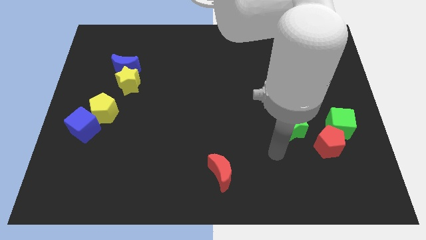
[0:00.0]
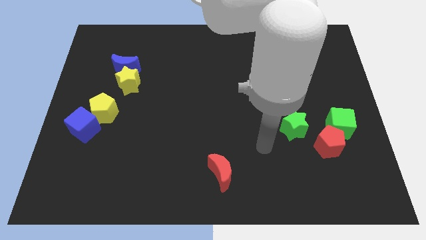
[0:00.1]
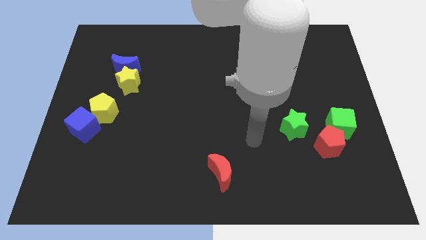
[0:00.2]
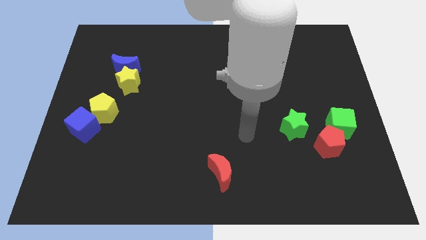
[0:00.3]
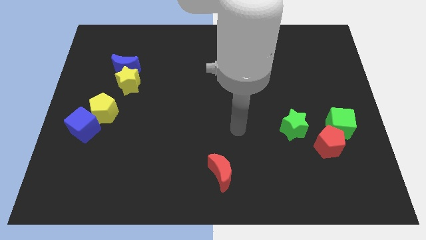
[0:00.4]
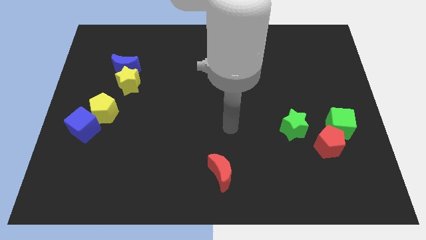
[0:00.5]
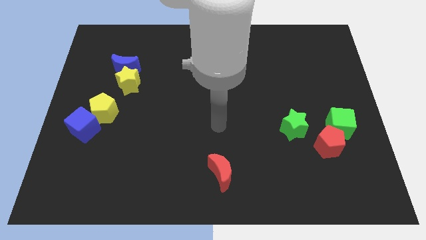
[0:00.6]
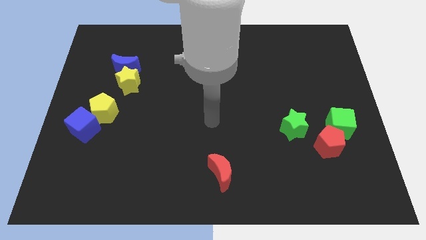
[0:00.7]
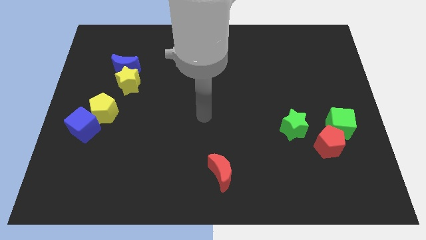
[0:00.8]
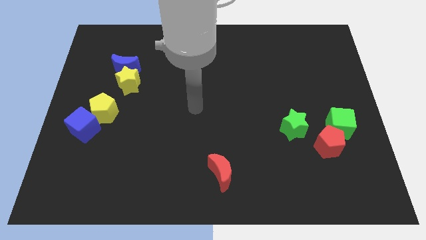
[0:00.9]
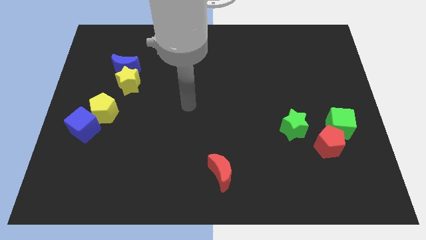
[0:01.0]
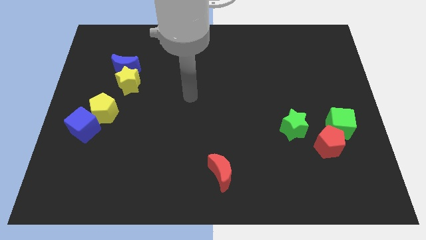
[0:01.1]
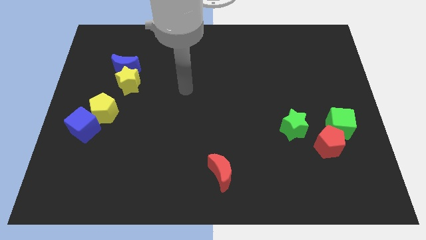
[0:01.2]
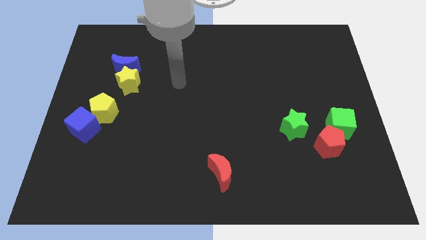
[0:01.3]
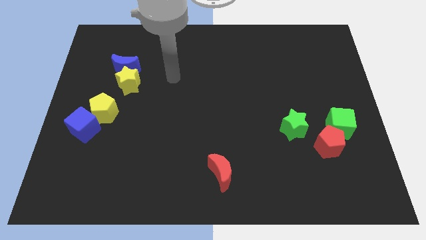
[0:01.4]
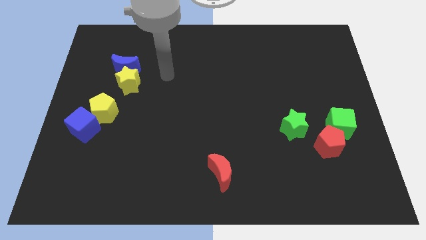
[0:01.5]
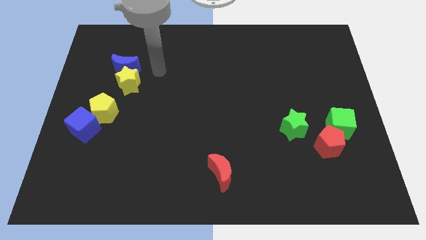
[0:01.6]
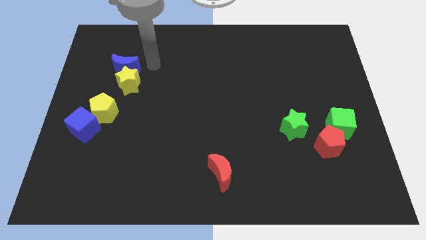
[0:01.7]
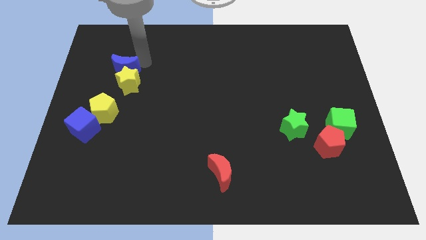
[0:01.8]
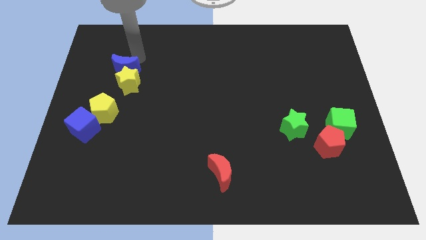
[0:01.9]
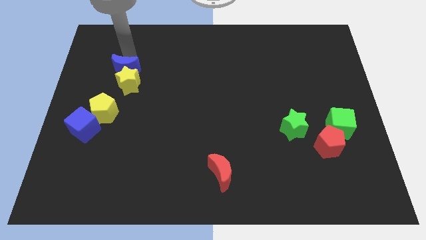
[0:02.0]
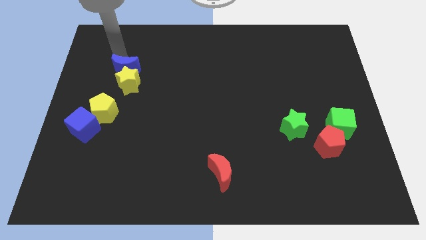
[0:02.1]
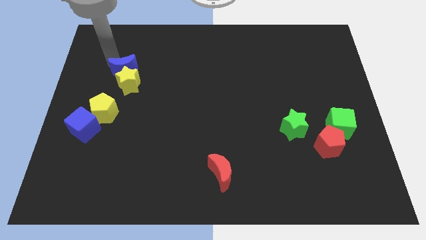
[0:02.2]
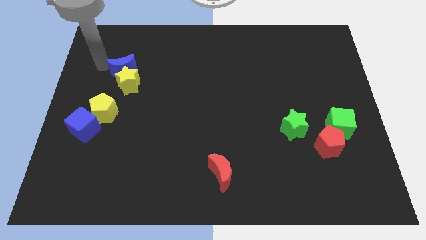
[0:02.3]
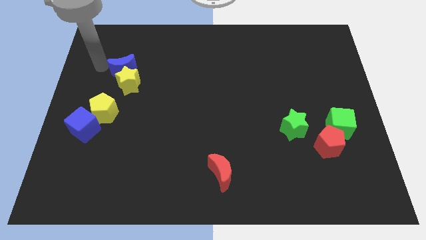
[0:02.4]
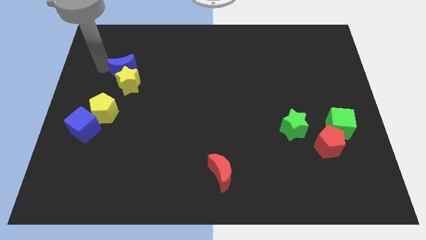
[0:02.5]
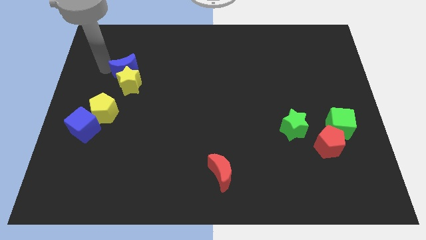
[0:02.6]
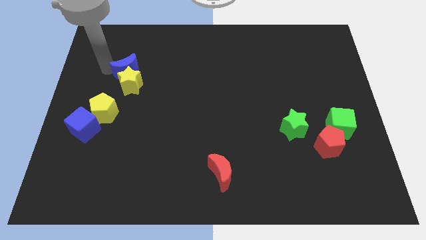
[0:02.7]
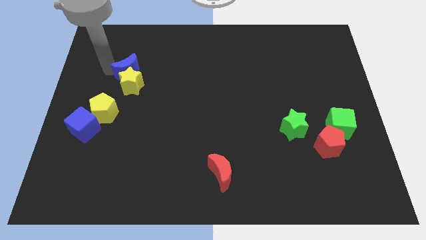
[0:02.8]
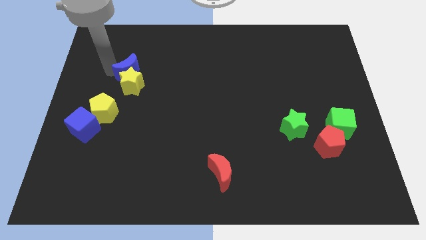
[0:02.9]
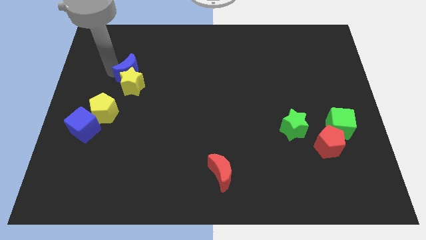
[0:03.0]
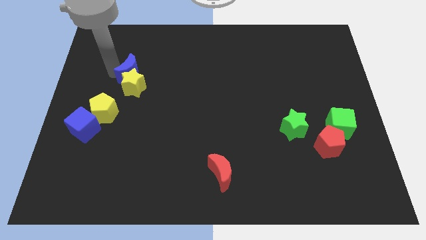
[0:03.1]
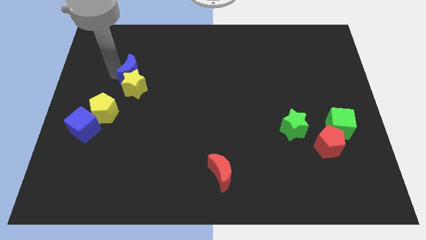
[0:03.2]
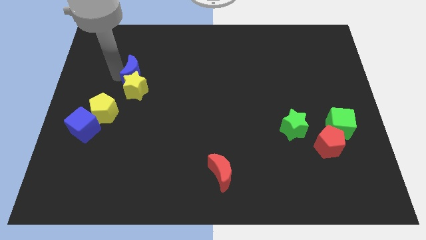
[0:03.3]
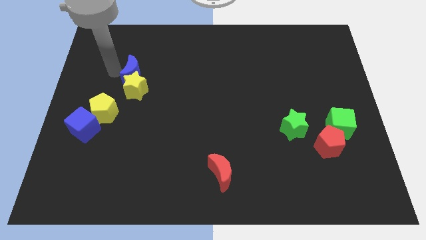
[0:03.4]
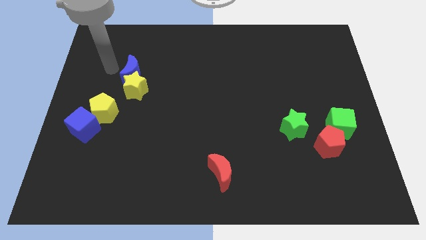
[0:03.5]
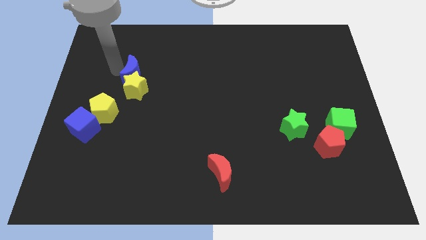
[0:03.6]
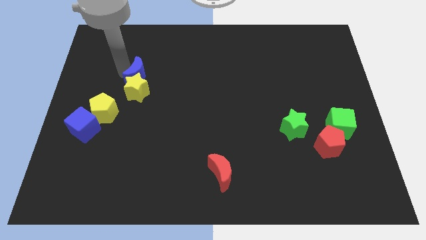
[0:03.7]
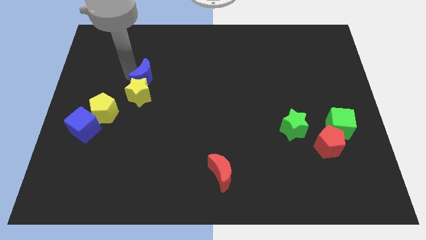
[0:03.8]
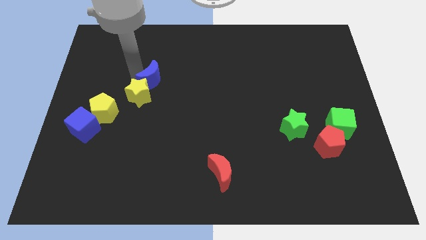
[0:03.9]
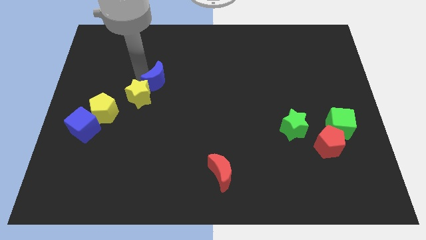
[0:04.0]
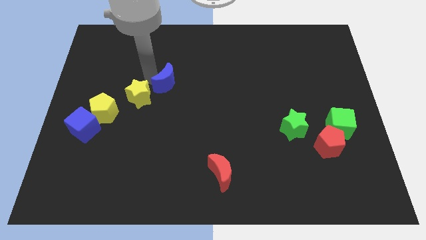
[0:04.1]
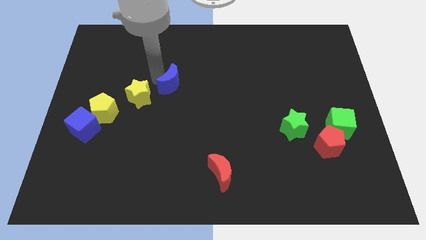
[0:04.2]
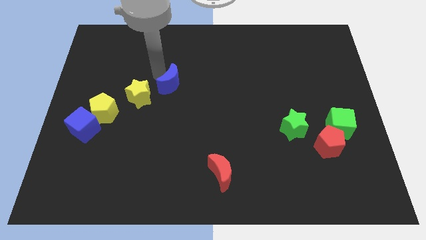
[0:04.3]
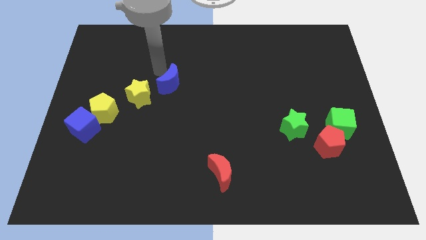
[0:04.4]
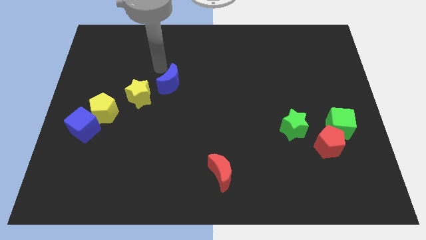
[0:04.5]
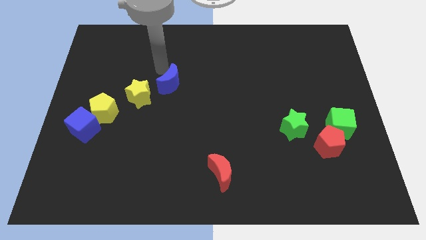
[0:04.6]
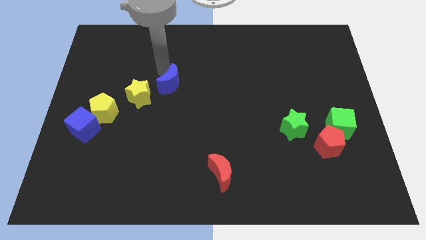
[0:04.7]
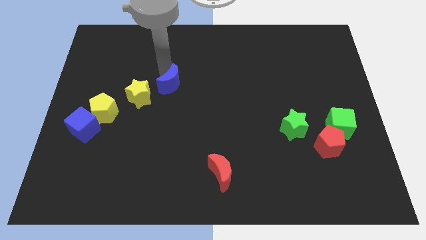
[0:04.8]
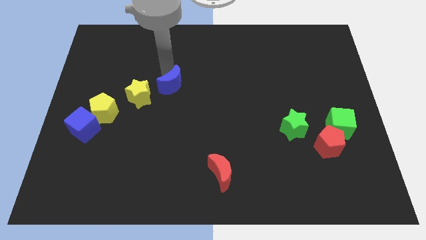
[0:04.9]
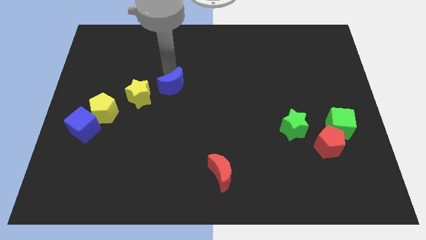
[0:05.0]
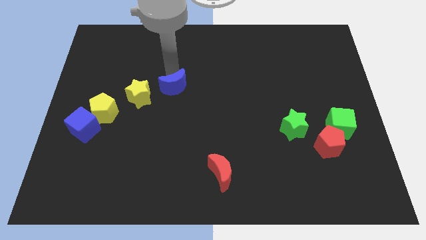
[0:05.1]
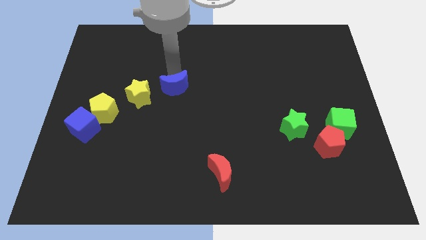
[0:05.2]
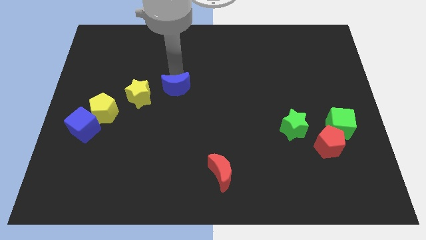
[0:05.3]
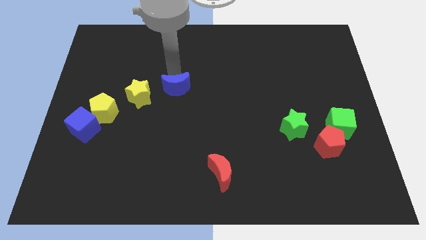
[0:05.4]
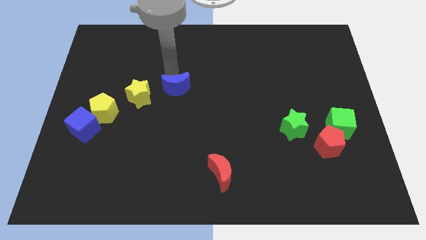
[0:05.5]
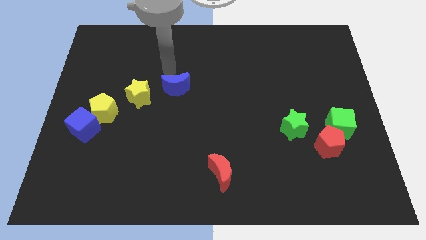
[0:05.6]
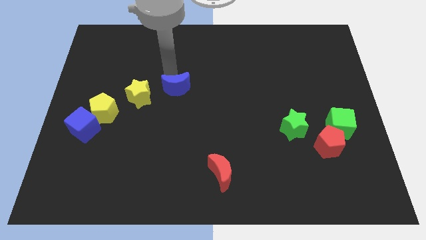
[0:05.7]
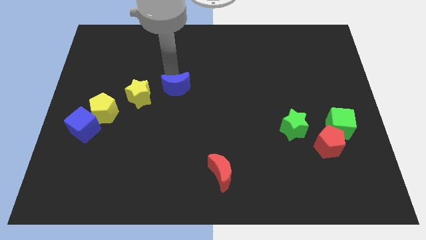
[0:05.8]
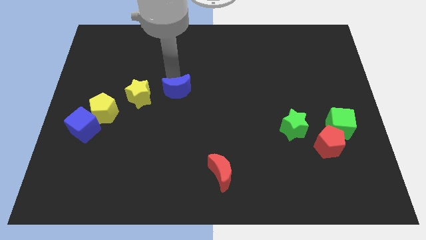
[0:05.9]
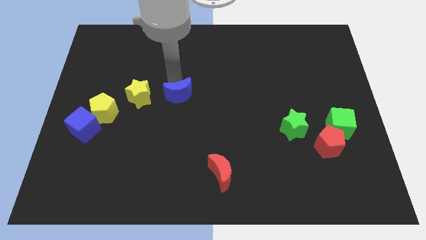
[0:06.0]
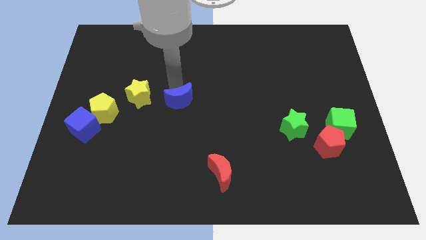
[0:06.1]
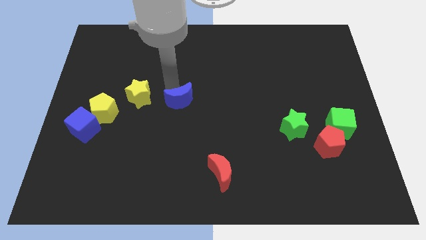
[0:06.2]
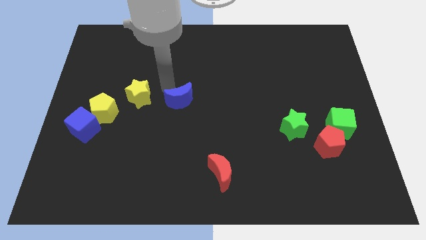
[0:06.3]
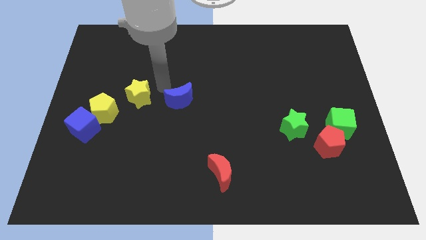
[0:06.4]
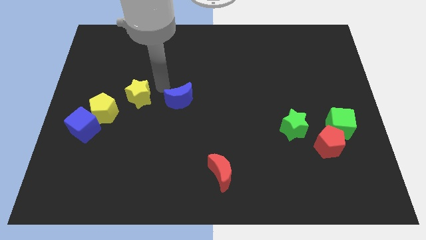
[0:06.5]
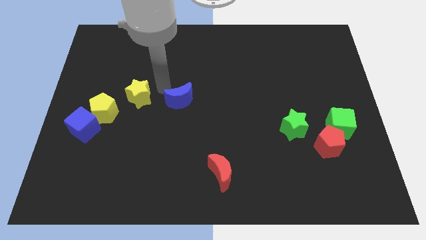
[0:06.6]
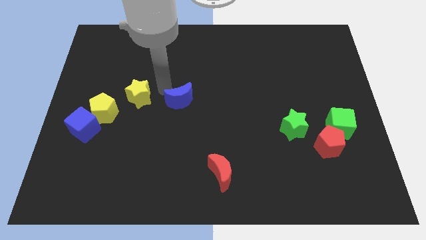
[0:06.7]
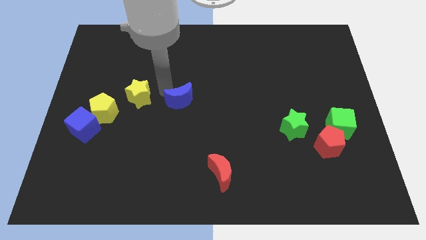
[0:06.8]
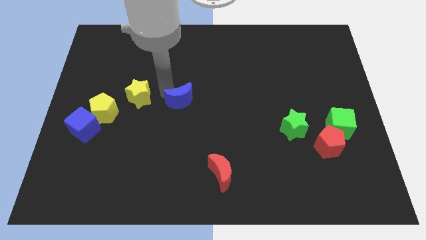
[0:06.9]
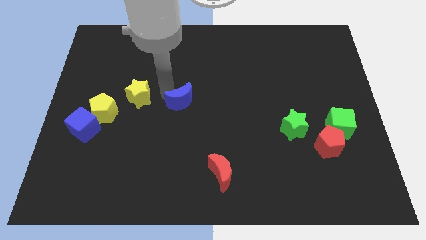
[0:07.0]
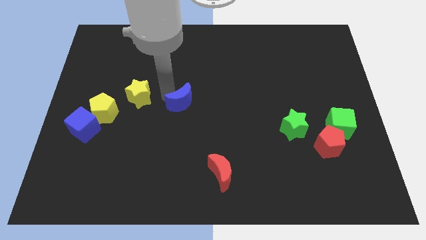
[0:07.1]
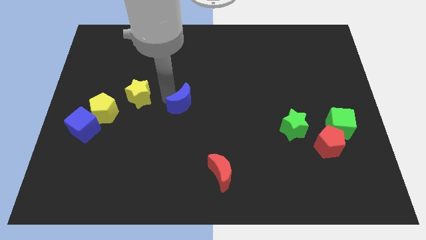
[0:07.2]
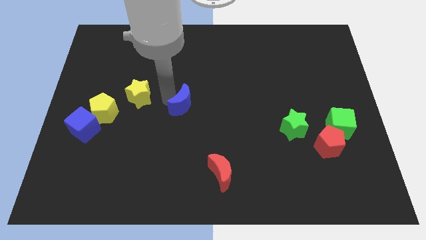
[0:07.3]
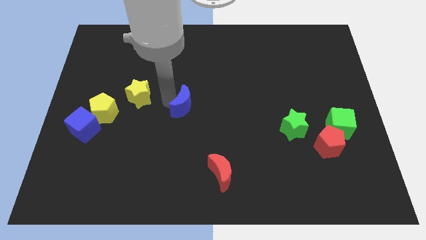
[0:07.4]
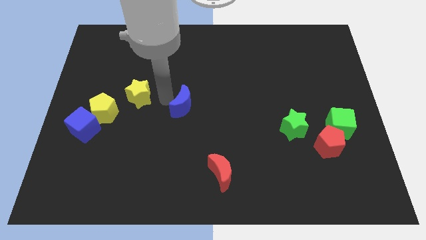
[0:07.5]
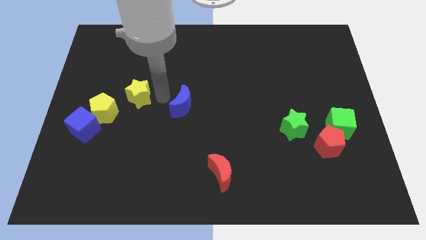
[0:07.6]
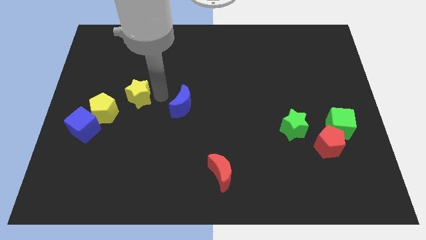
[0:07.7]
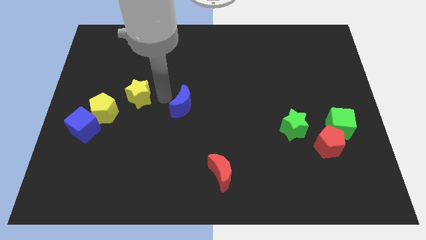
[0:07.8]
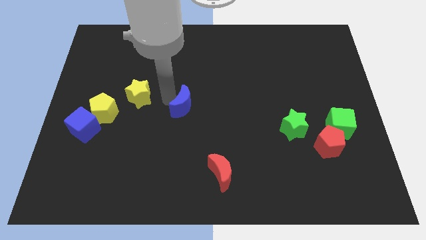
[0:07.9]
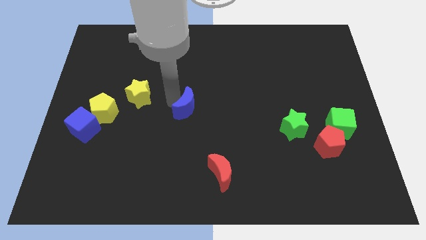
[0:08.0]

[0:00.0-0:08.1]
push the blue moon downwards and to the right
